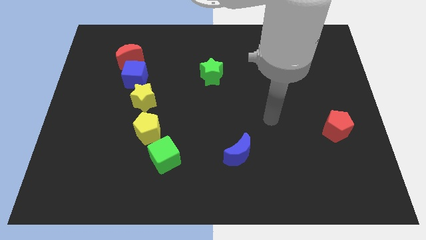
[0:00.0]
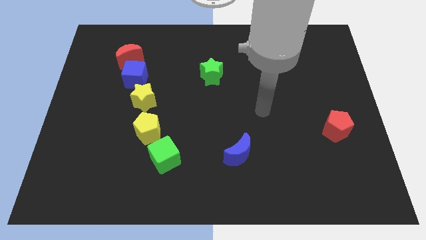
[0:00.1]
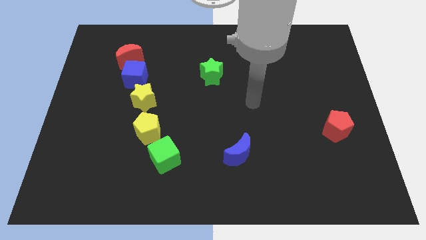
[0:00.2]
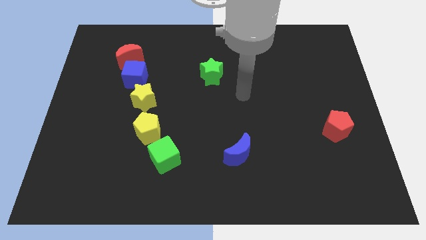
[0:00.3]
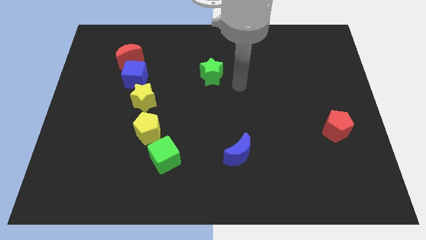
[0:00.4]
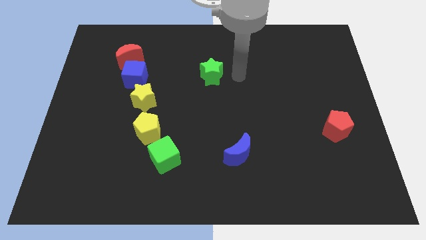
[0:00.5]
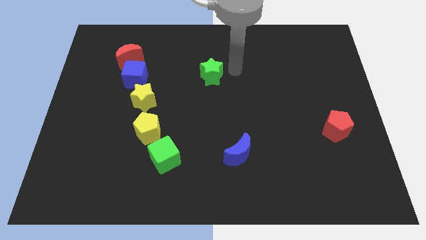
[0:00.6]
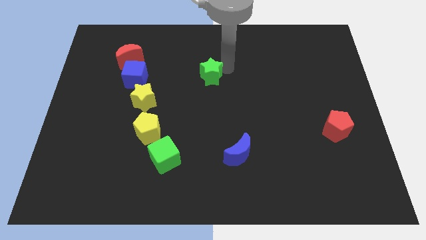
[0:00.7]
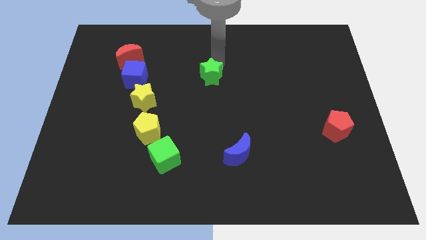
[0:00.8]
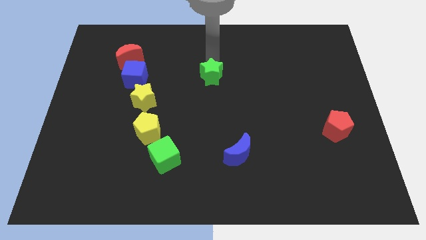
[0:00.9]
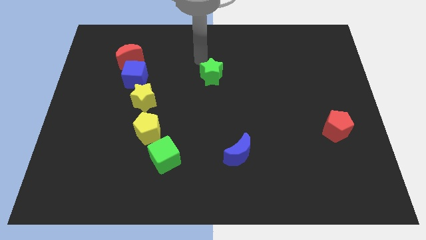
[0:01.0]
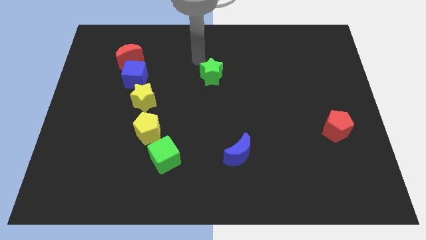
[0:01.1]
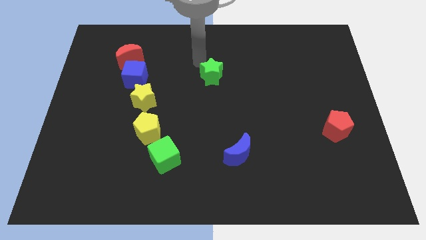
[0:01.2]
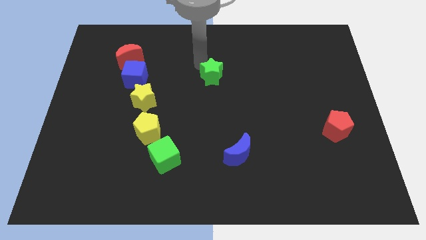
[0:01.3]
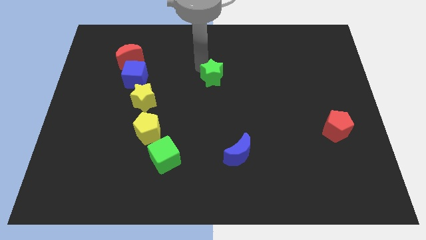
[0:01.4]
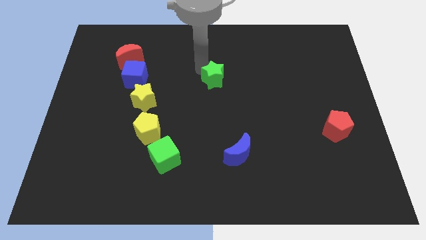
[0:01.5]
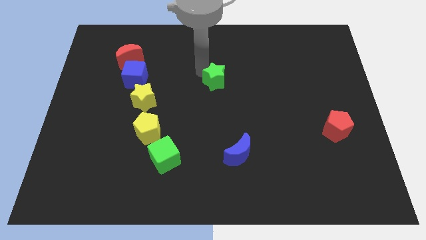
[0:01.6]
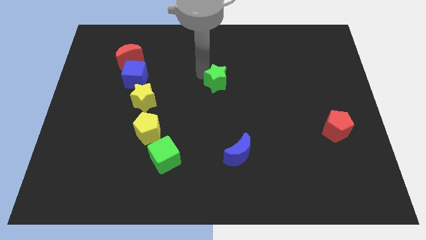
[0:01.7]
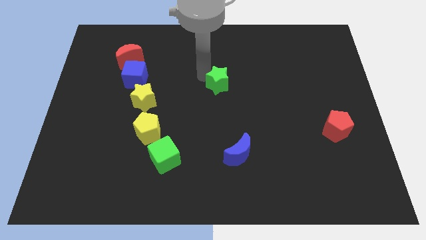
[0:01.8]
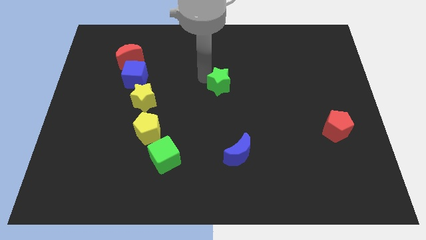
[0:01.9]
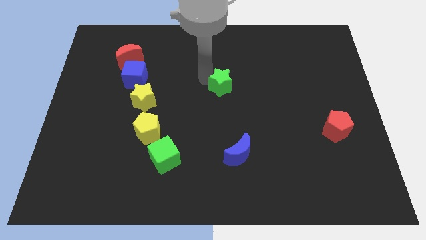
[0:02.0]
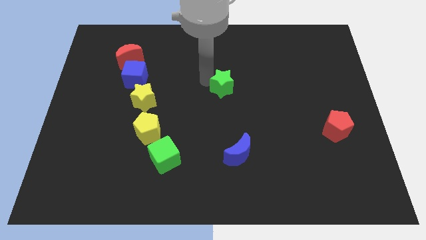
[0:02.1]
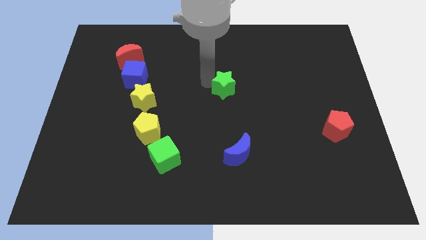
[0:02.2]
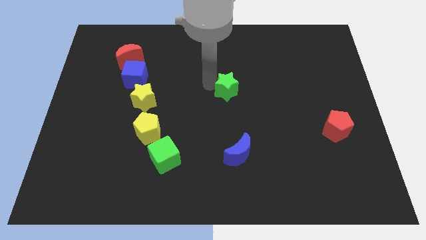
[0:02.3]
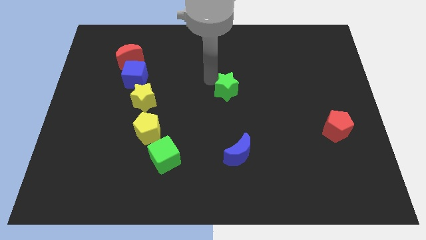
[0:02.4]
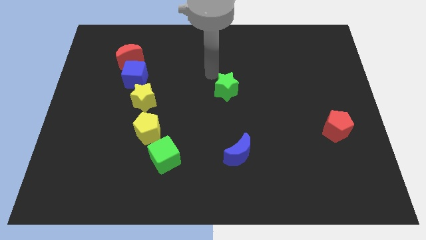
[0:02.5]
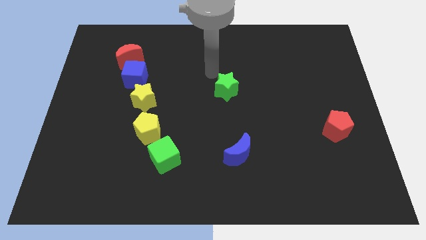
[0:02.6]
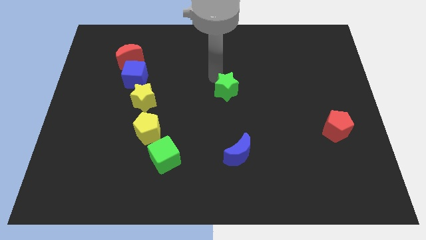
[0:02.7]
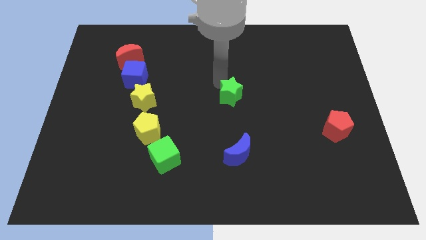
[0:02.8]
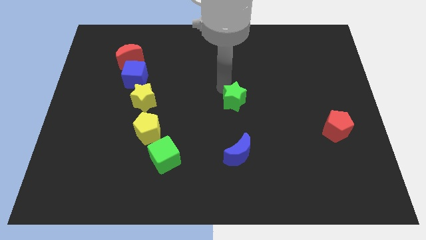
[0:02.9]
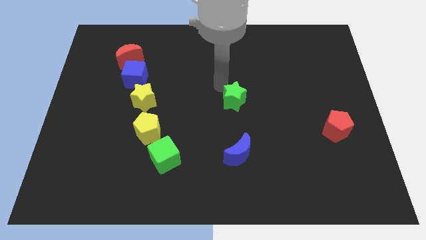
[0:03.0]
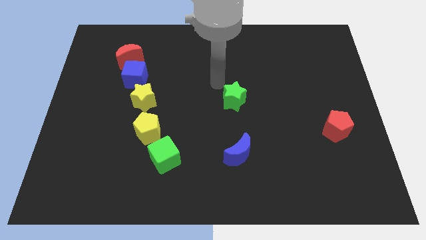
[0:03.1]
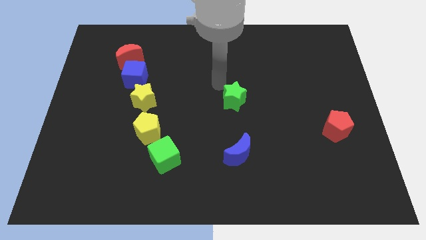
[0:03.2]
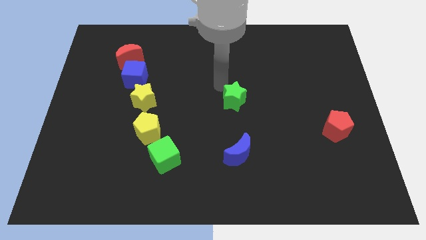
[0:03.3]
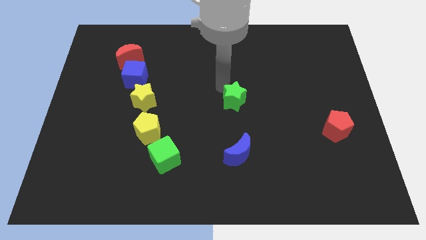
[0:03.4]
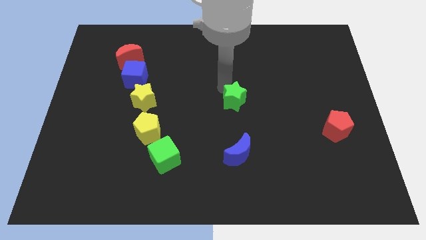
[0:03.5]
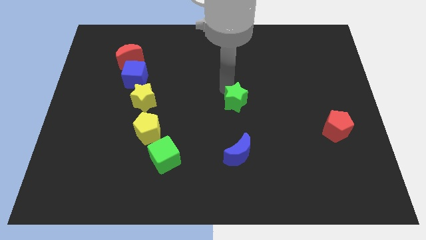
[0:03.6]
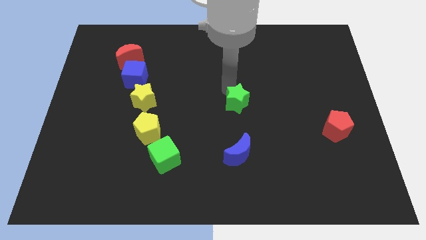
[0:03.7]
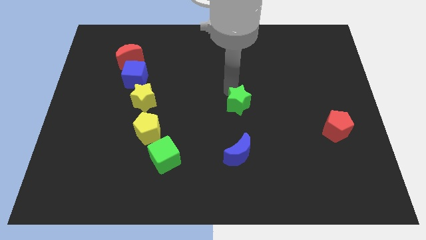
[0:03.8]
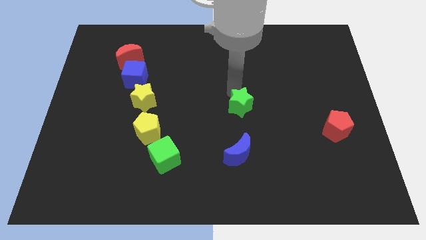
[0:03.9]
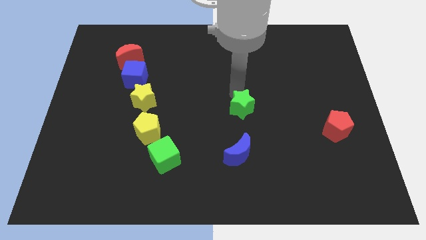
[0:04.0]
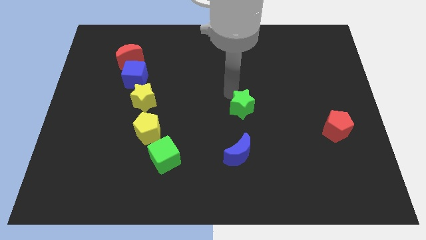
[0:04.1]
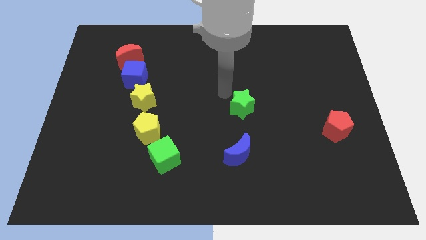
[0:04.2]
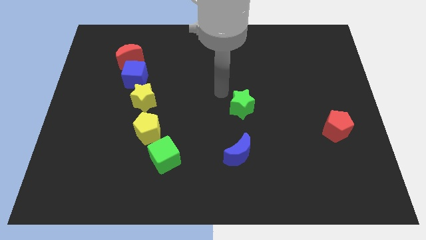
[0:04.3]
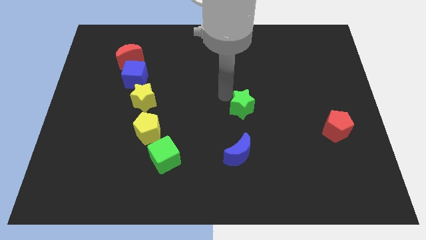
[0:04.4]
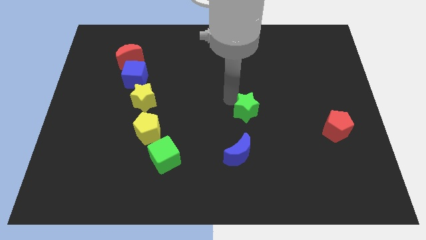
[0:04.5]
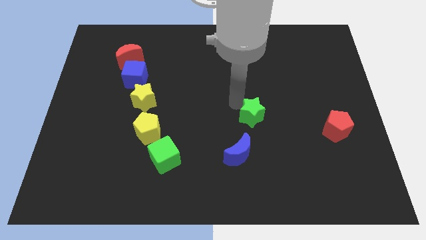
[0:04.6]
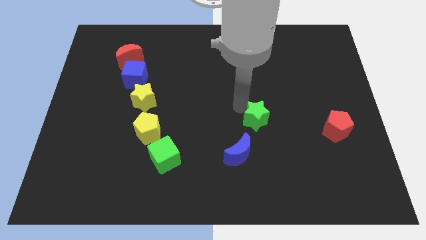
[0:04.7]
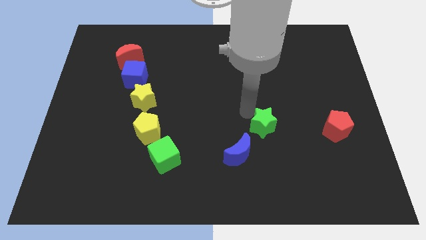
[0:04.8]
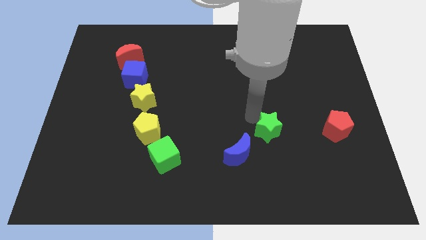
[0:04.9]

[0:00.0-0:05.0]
slide the green star down and to the right diagonally

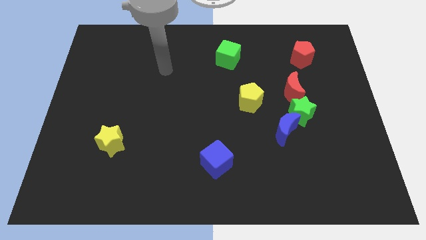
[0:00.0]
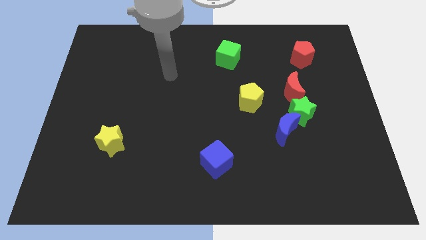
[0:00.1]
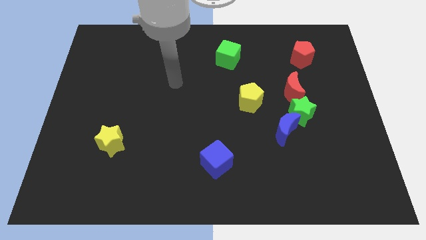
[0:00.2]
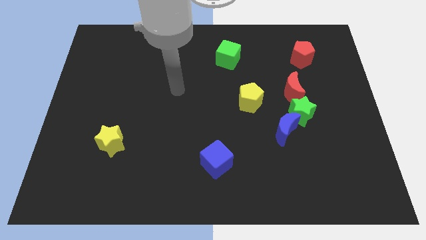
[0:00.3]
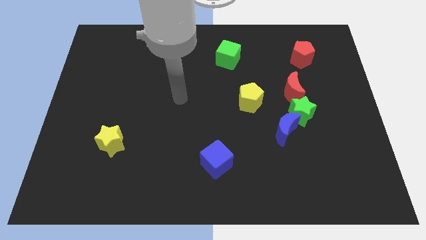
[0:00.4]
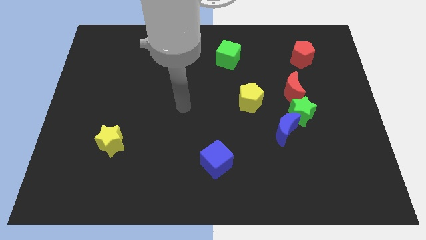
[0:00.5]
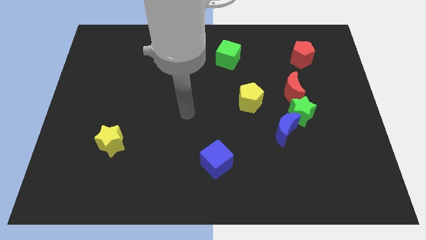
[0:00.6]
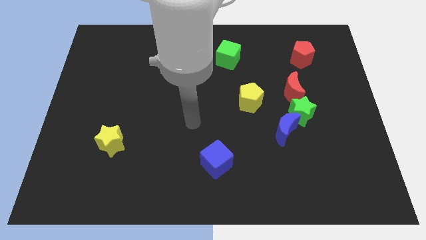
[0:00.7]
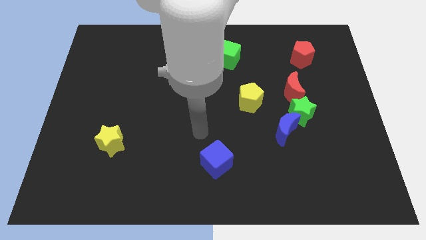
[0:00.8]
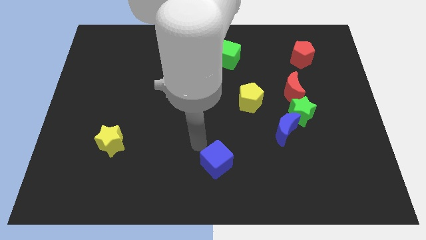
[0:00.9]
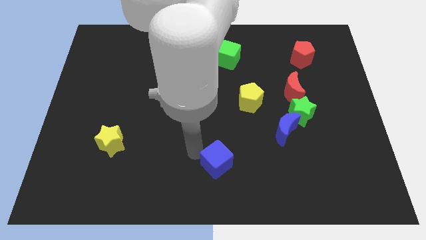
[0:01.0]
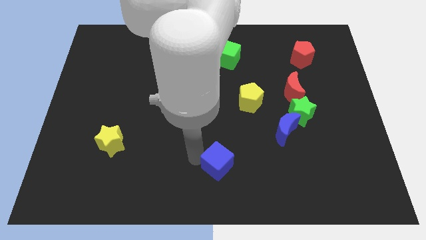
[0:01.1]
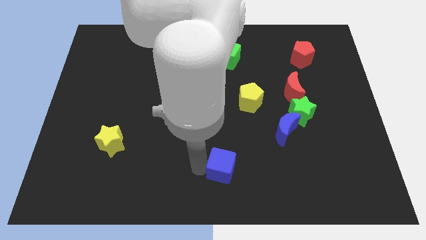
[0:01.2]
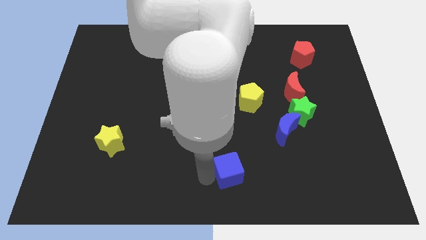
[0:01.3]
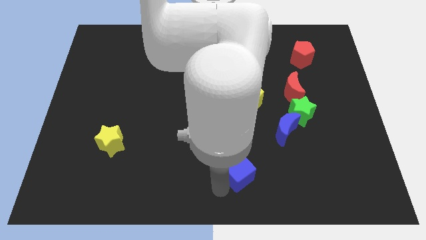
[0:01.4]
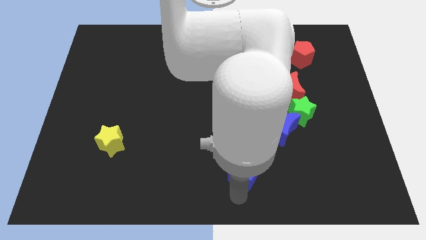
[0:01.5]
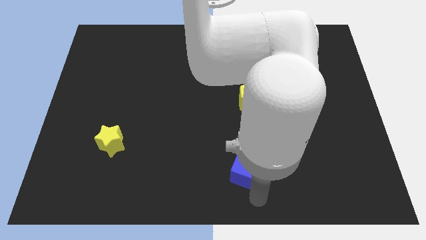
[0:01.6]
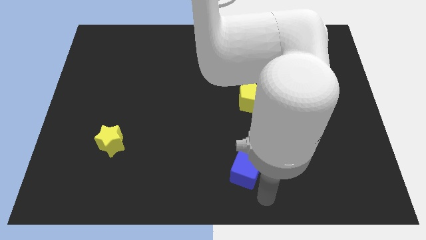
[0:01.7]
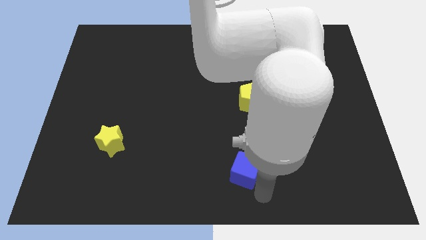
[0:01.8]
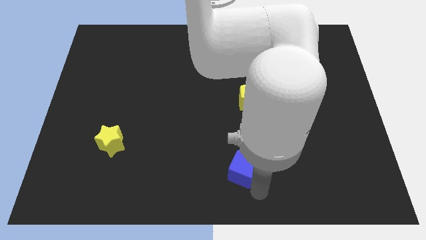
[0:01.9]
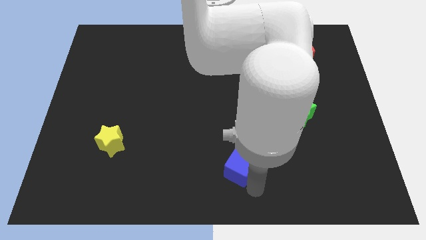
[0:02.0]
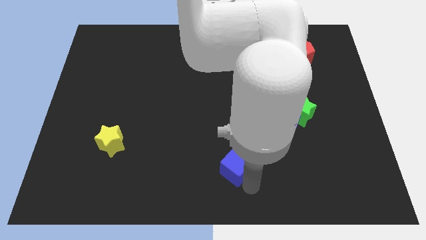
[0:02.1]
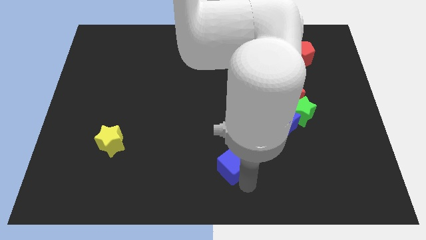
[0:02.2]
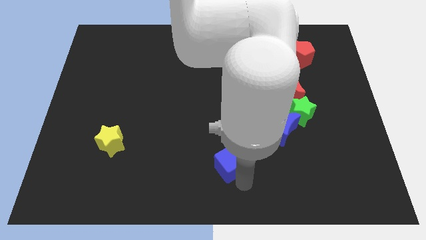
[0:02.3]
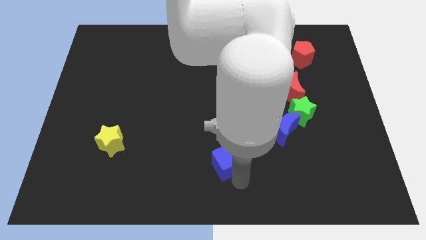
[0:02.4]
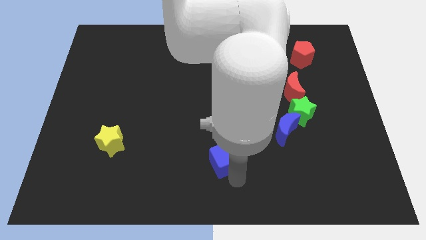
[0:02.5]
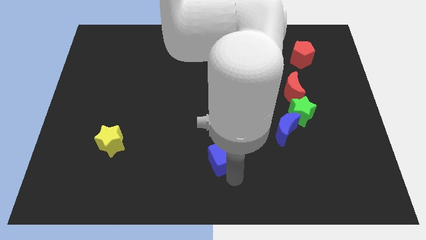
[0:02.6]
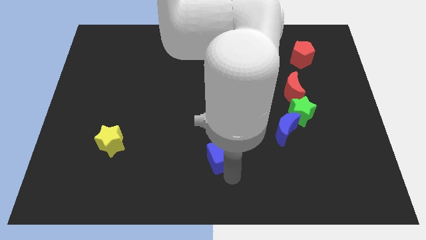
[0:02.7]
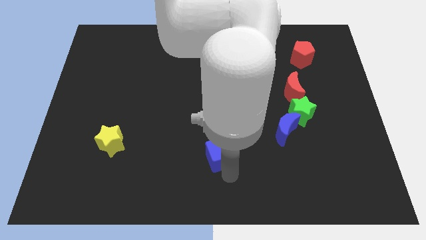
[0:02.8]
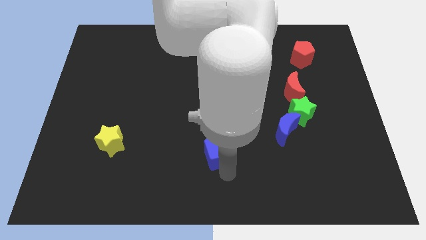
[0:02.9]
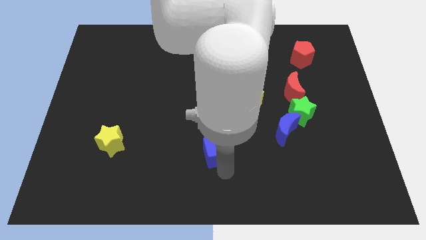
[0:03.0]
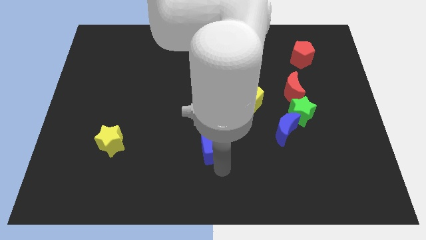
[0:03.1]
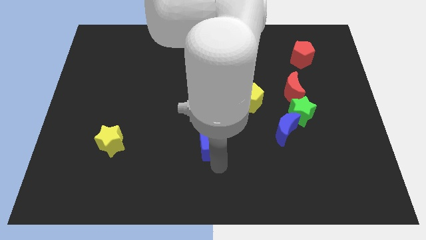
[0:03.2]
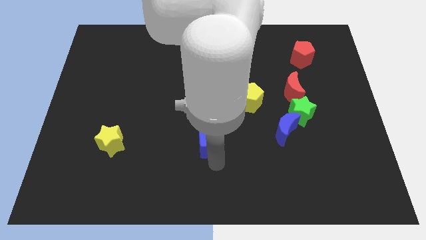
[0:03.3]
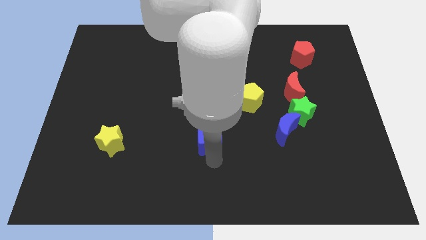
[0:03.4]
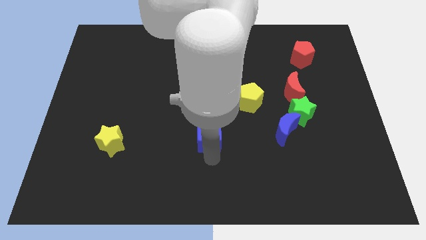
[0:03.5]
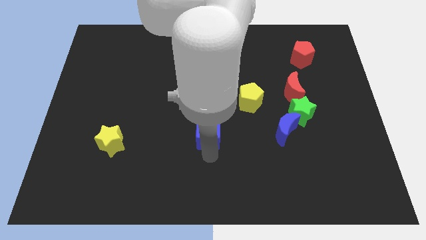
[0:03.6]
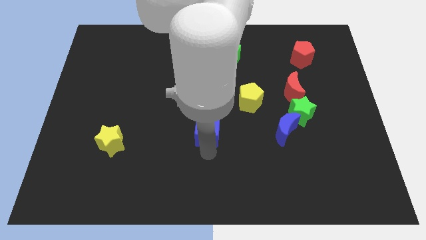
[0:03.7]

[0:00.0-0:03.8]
slightly move the blue cube up
